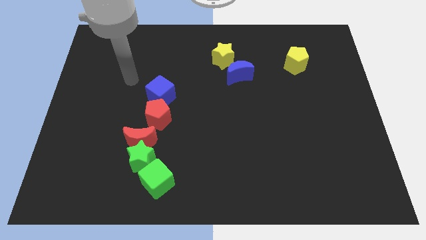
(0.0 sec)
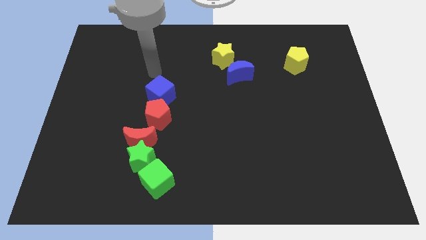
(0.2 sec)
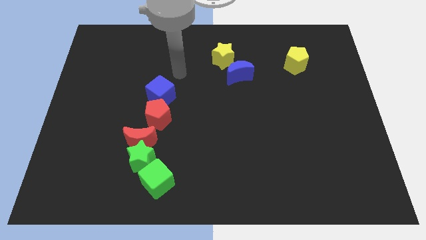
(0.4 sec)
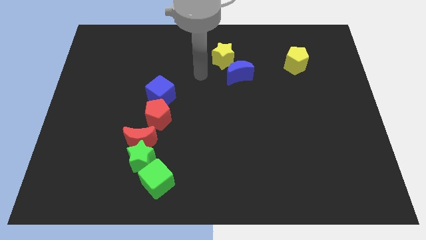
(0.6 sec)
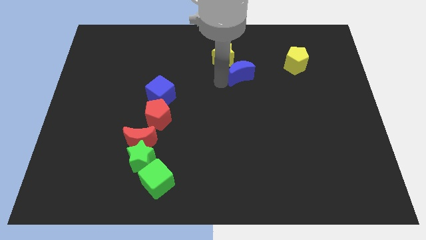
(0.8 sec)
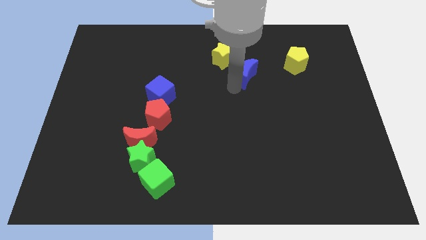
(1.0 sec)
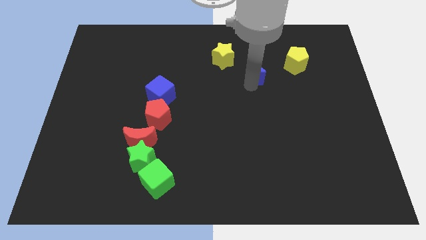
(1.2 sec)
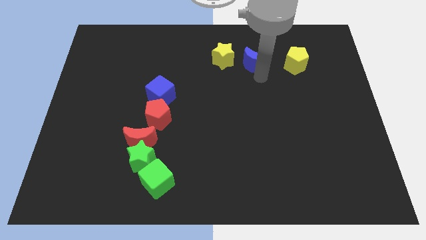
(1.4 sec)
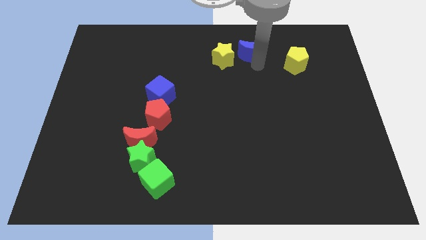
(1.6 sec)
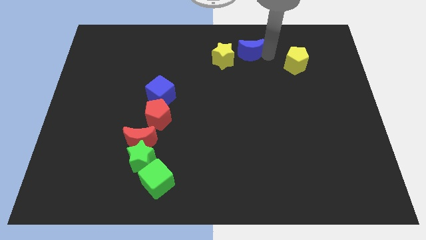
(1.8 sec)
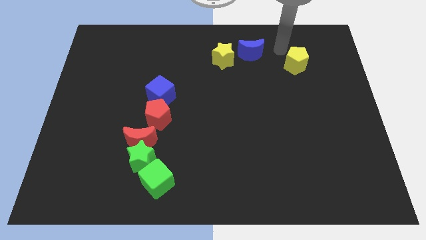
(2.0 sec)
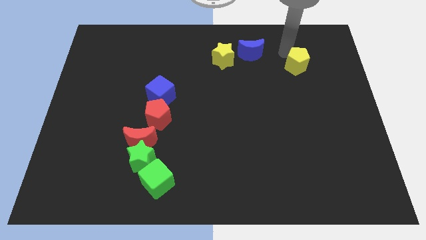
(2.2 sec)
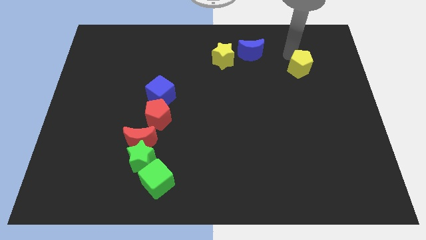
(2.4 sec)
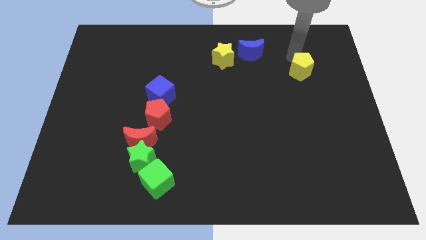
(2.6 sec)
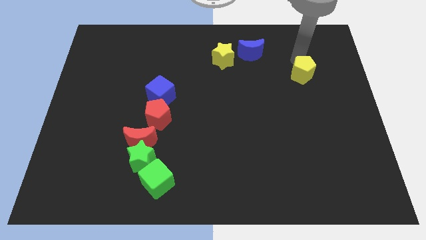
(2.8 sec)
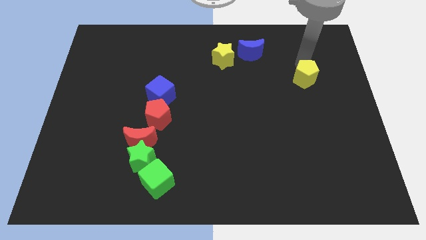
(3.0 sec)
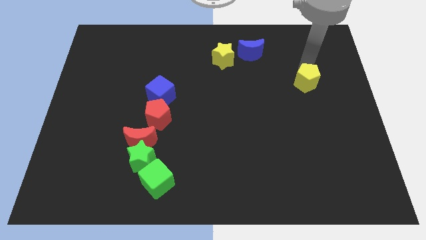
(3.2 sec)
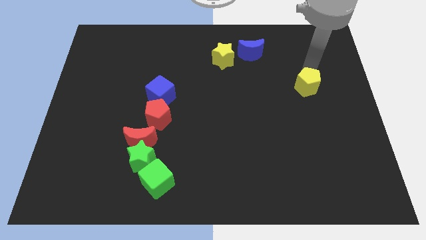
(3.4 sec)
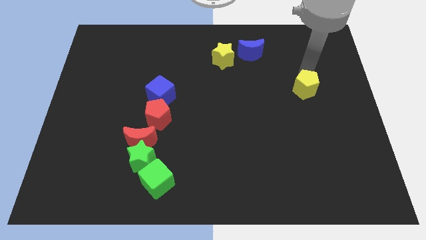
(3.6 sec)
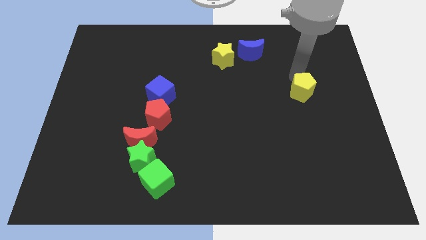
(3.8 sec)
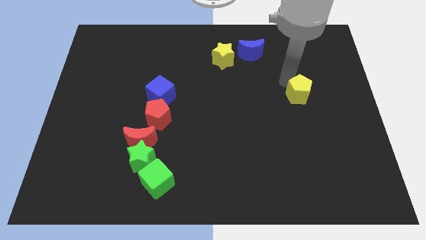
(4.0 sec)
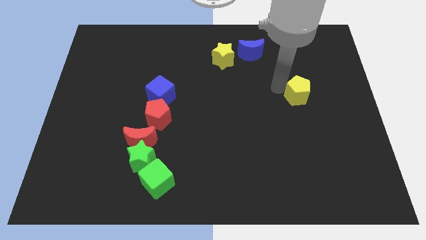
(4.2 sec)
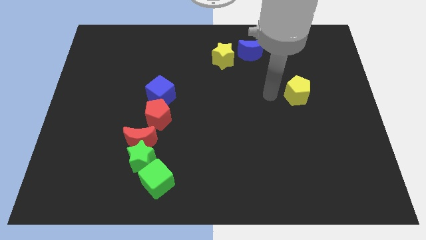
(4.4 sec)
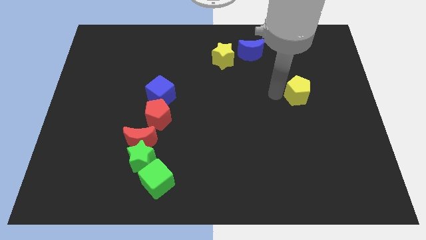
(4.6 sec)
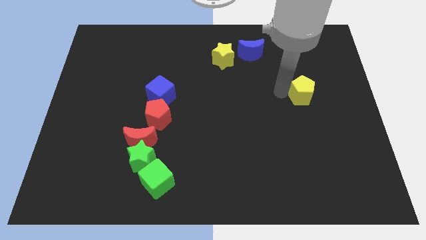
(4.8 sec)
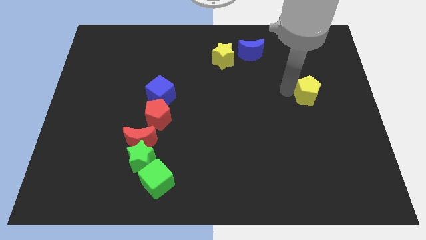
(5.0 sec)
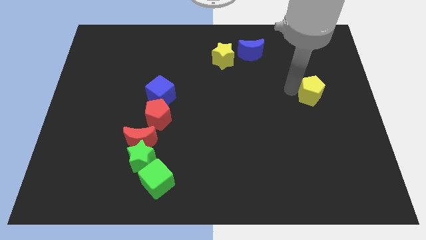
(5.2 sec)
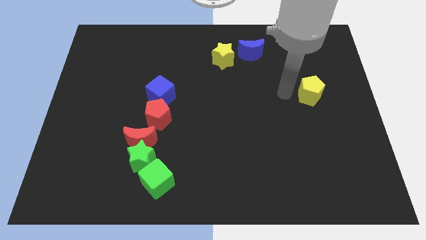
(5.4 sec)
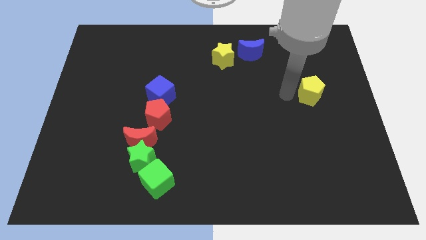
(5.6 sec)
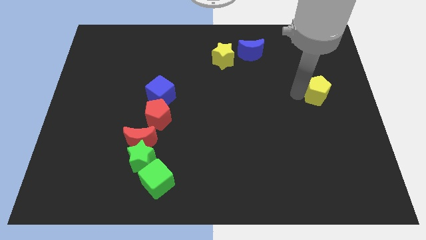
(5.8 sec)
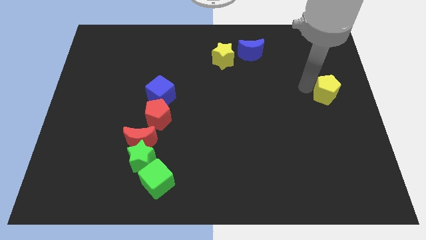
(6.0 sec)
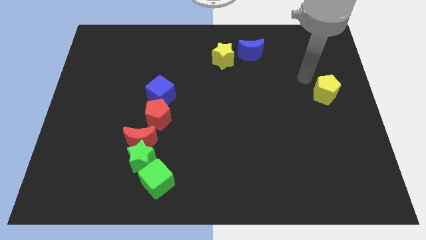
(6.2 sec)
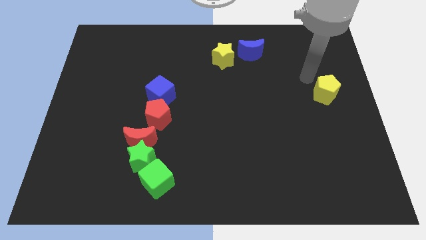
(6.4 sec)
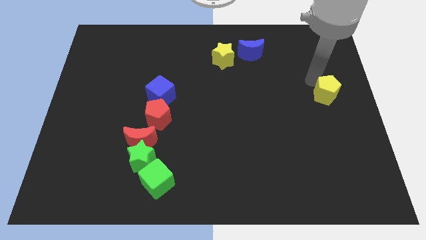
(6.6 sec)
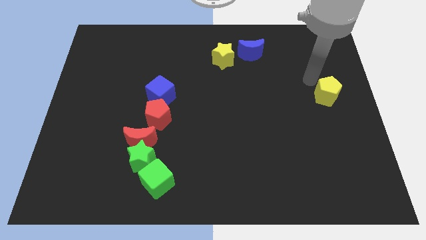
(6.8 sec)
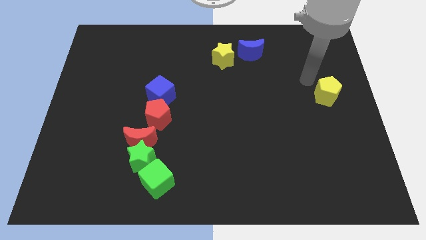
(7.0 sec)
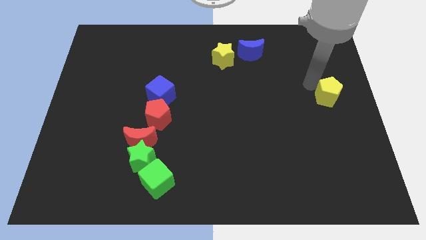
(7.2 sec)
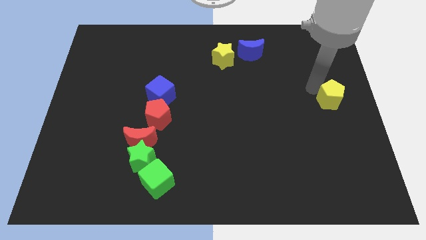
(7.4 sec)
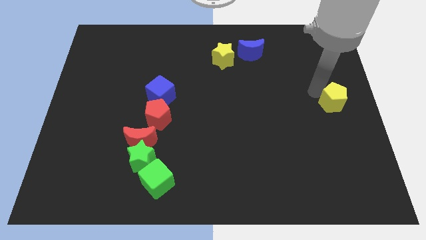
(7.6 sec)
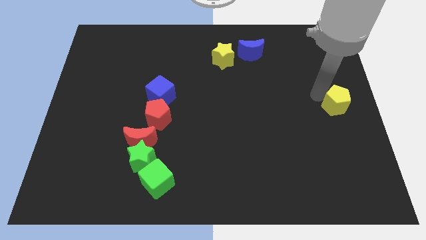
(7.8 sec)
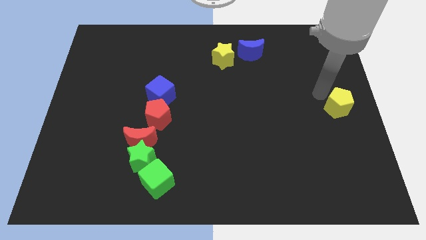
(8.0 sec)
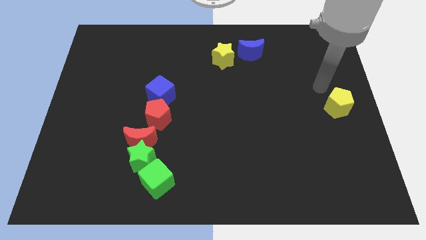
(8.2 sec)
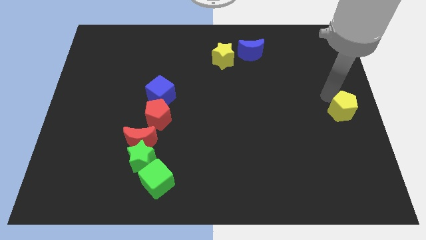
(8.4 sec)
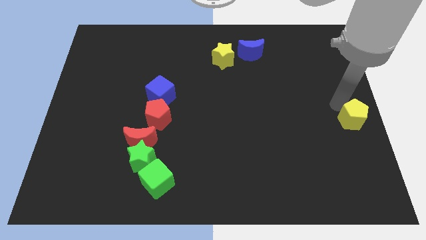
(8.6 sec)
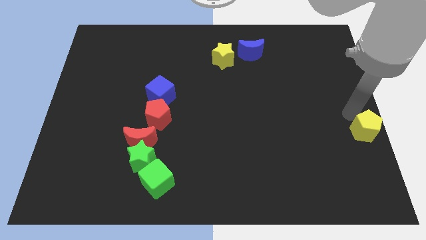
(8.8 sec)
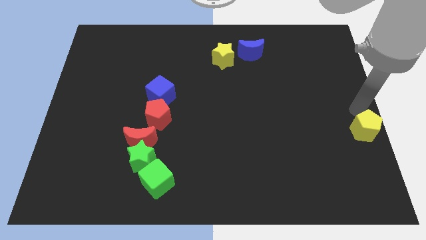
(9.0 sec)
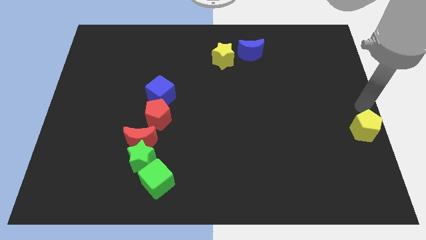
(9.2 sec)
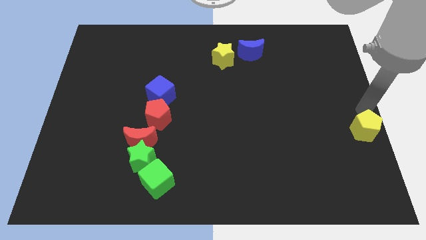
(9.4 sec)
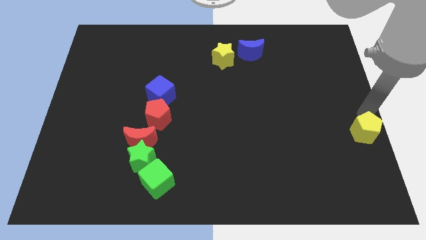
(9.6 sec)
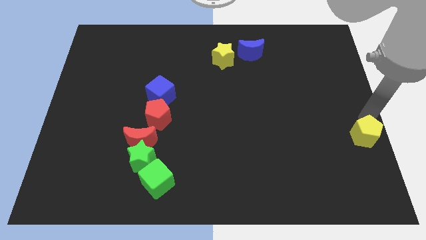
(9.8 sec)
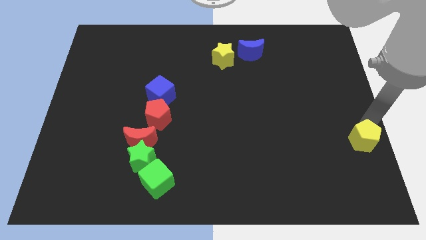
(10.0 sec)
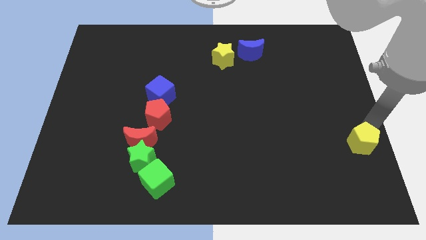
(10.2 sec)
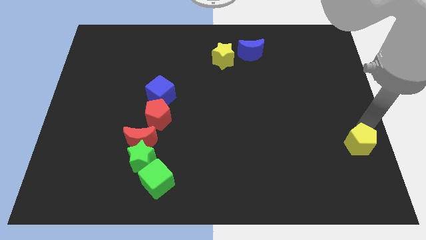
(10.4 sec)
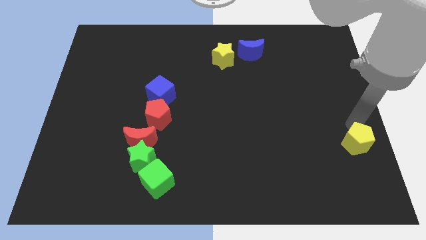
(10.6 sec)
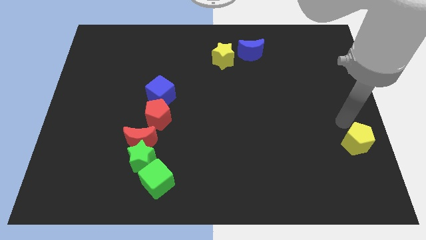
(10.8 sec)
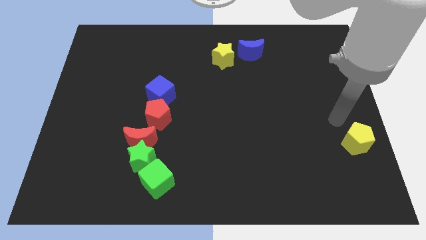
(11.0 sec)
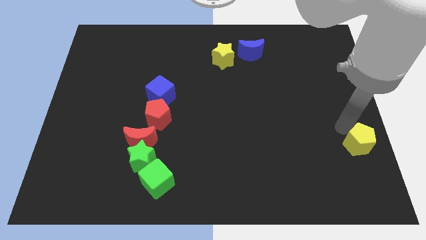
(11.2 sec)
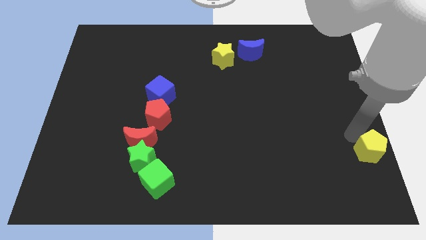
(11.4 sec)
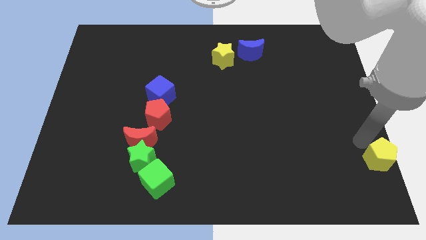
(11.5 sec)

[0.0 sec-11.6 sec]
slide the yellow pentagon to the bottom right
